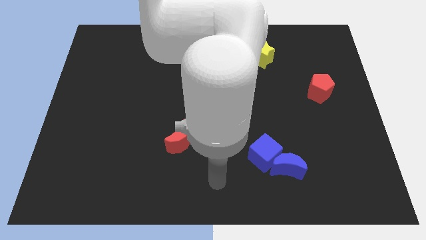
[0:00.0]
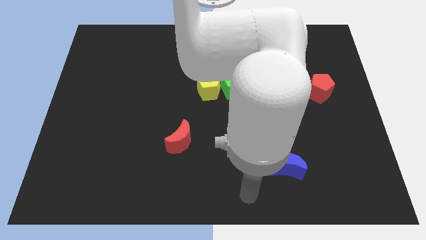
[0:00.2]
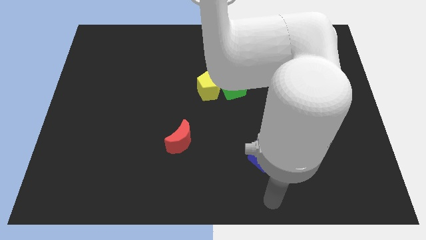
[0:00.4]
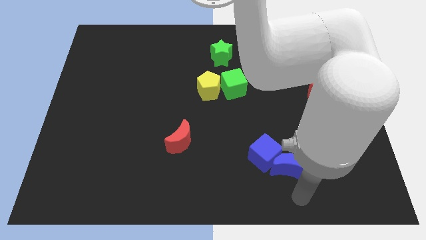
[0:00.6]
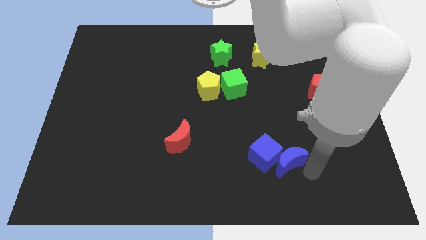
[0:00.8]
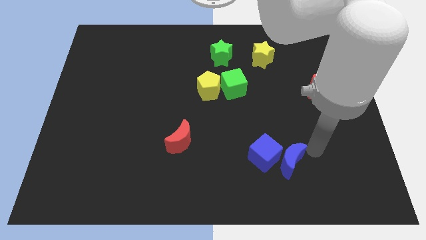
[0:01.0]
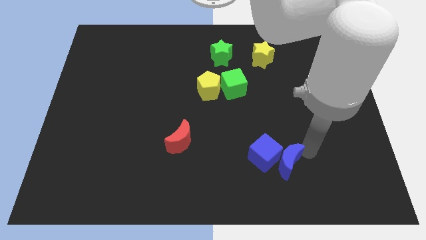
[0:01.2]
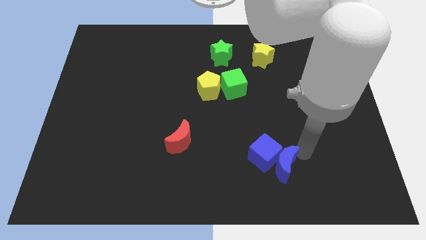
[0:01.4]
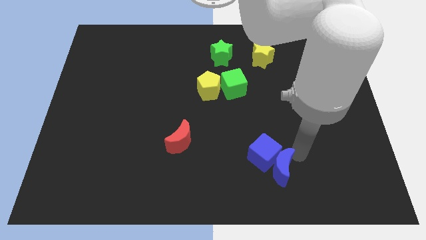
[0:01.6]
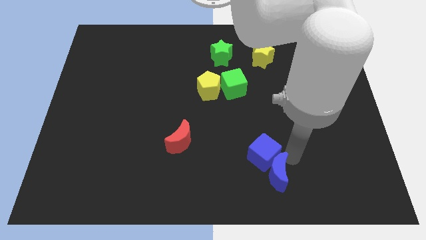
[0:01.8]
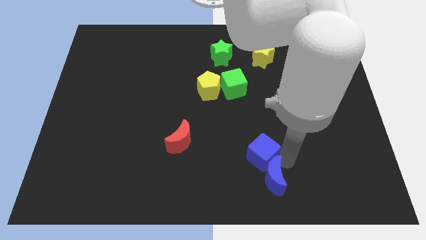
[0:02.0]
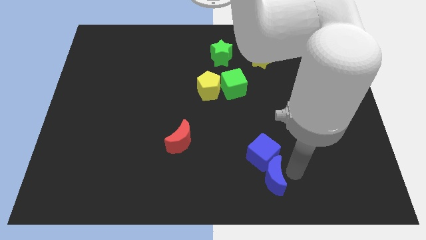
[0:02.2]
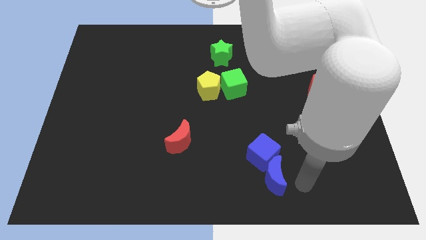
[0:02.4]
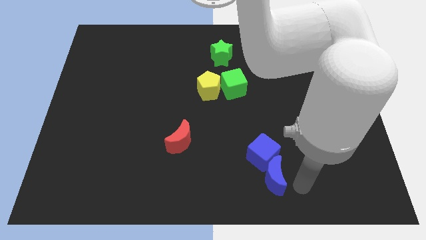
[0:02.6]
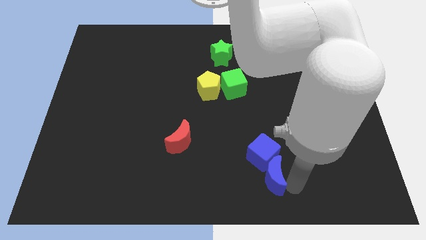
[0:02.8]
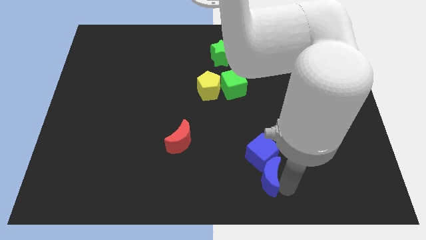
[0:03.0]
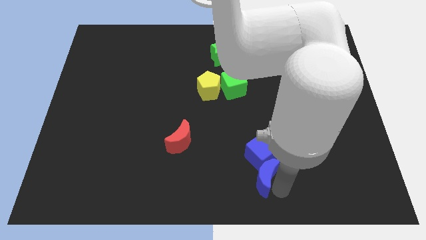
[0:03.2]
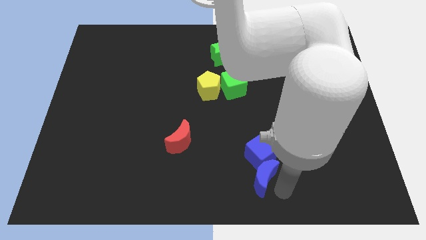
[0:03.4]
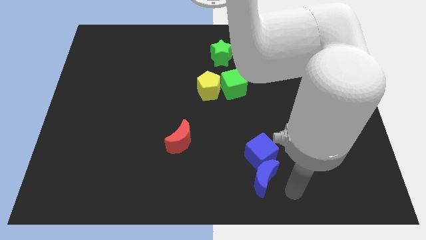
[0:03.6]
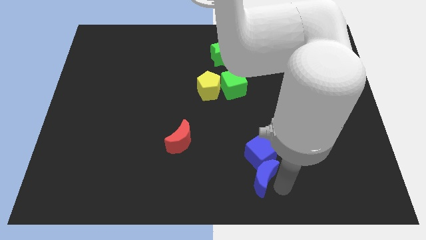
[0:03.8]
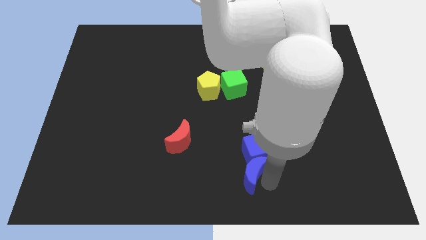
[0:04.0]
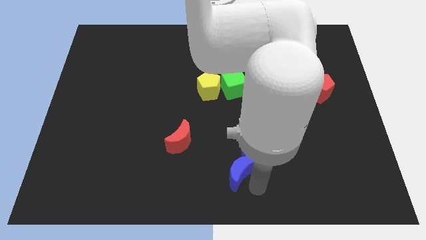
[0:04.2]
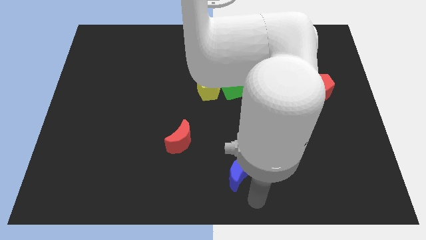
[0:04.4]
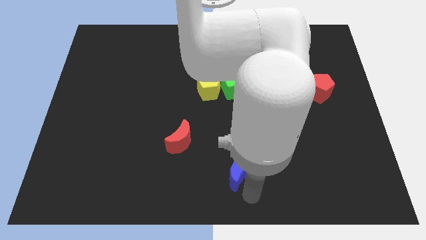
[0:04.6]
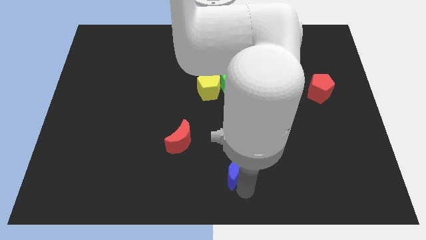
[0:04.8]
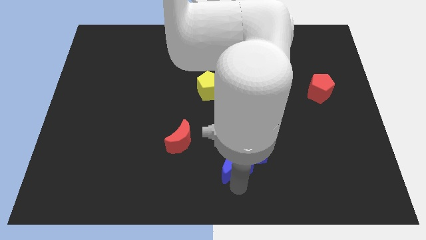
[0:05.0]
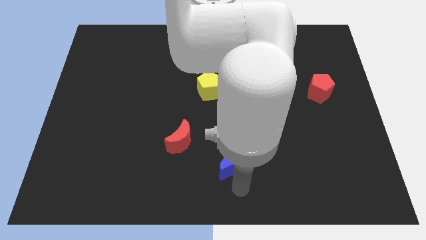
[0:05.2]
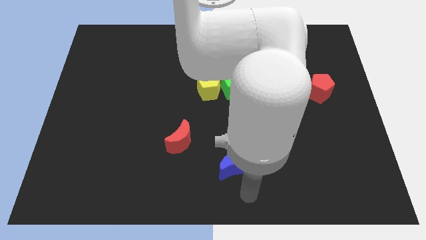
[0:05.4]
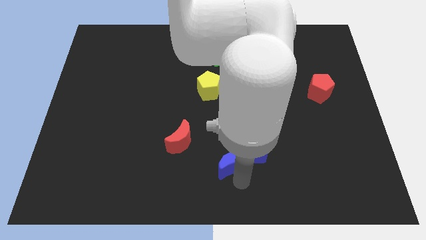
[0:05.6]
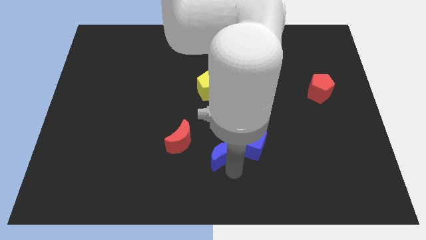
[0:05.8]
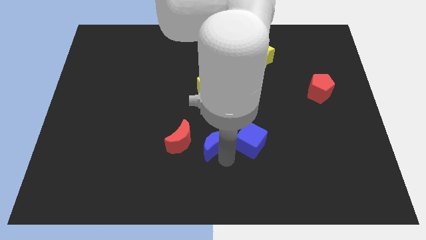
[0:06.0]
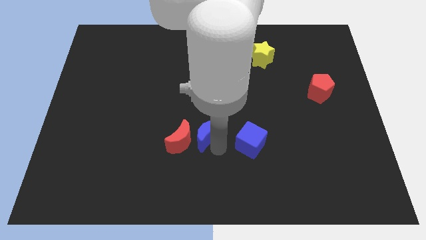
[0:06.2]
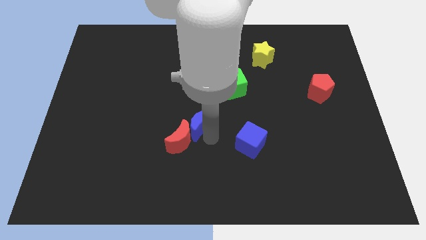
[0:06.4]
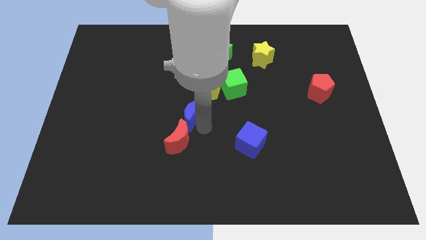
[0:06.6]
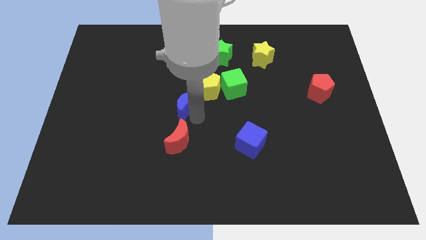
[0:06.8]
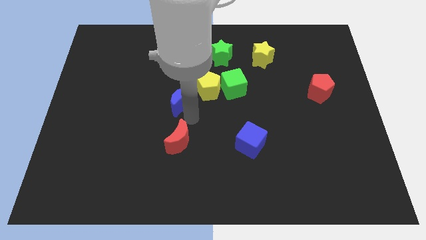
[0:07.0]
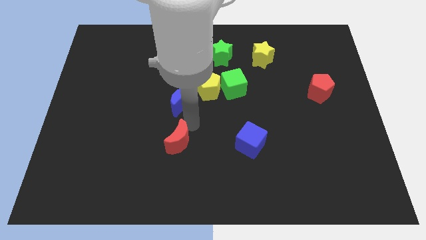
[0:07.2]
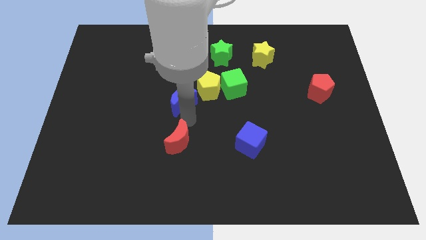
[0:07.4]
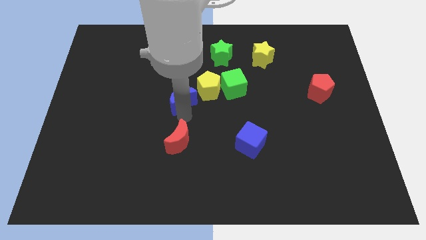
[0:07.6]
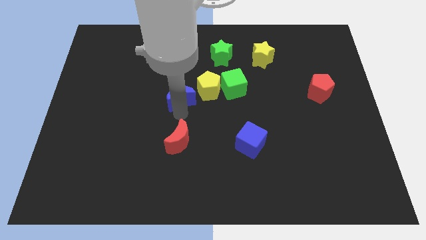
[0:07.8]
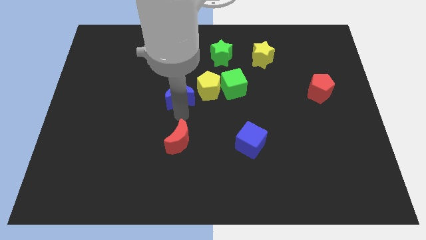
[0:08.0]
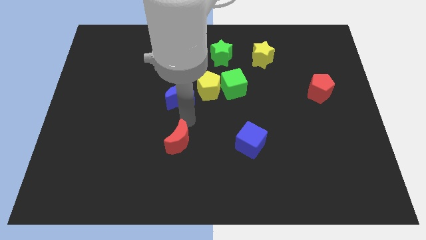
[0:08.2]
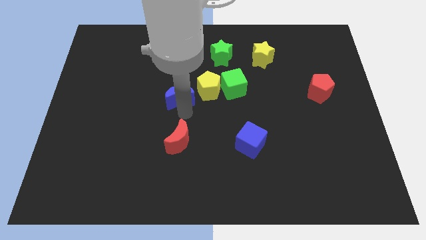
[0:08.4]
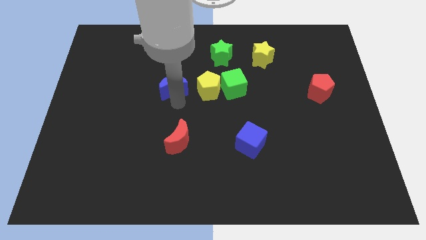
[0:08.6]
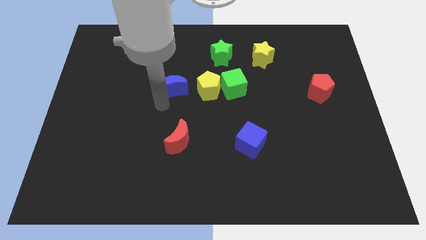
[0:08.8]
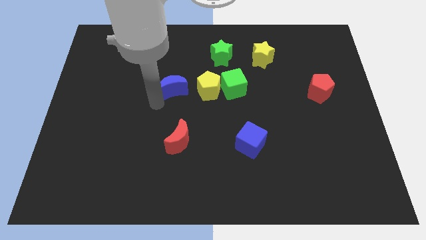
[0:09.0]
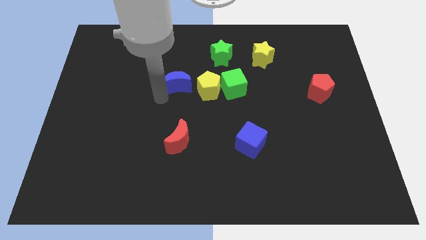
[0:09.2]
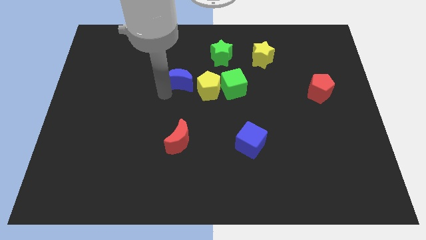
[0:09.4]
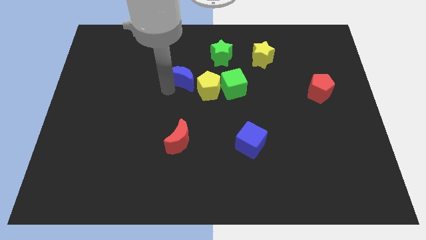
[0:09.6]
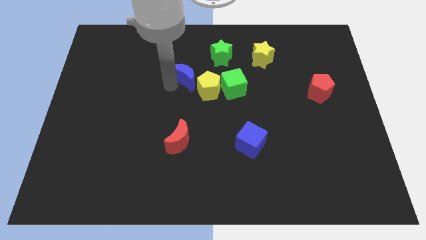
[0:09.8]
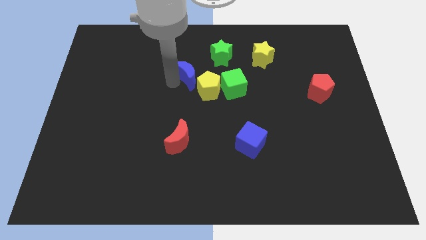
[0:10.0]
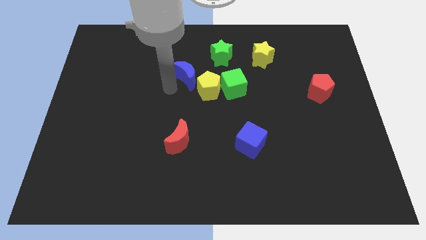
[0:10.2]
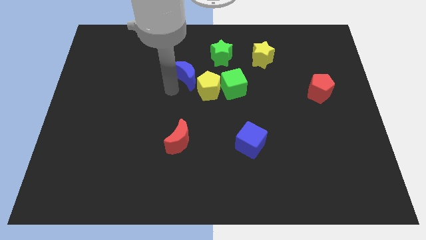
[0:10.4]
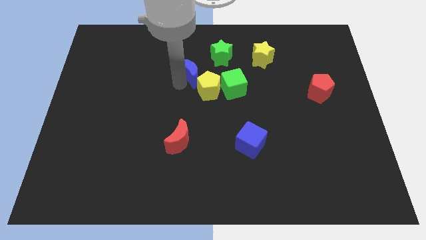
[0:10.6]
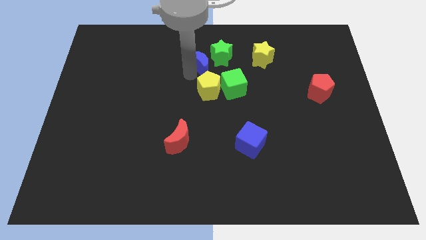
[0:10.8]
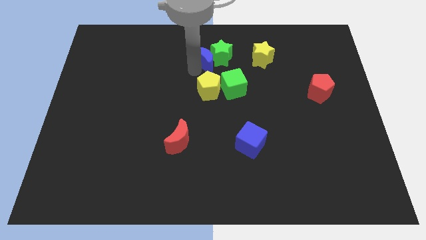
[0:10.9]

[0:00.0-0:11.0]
move the blue moon next to the green star

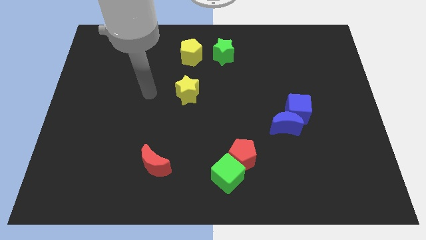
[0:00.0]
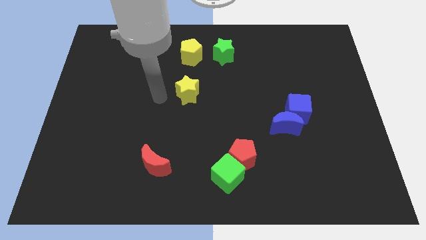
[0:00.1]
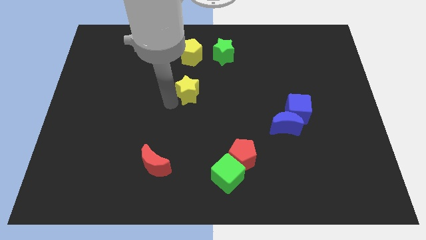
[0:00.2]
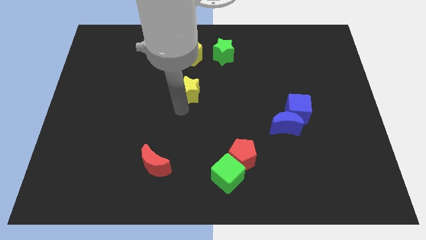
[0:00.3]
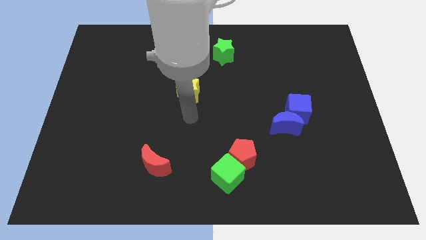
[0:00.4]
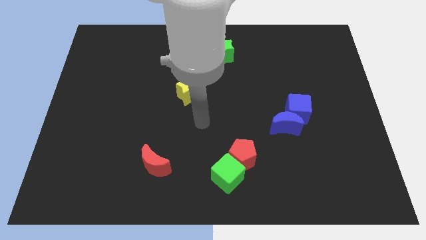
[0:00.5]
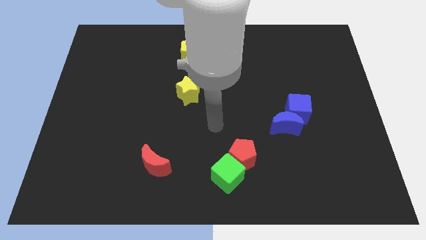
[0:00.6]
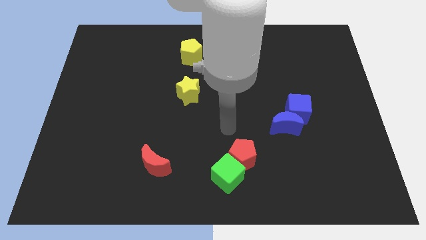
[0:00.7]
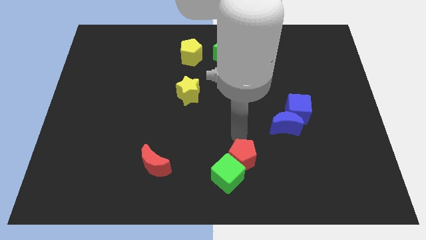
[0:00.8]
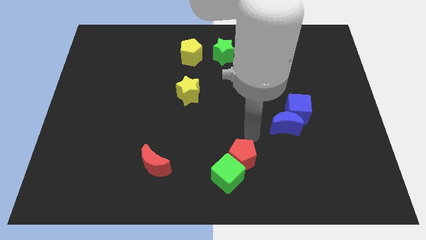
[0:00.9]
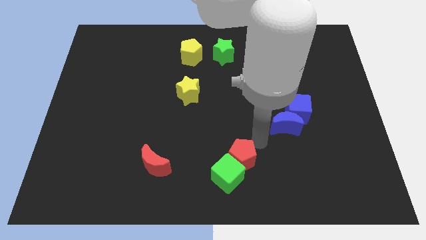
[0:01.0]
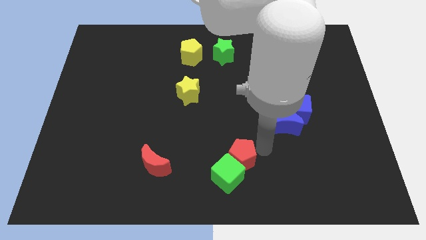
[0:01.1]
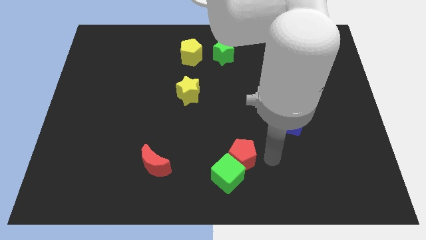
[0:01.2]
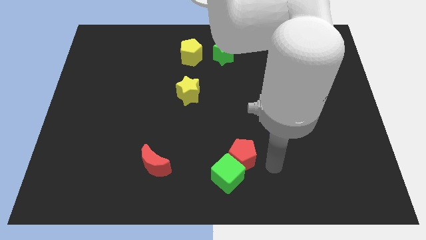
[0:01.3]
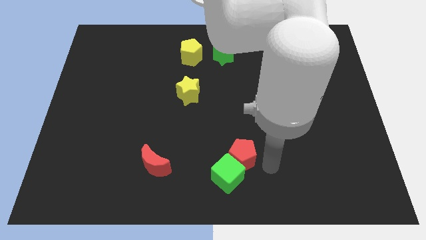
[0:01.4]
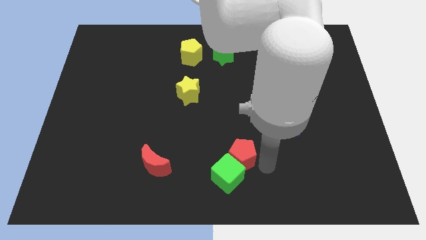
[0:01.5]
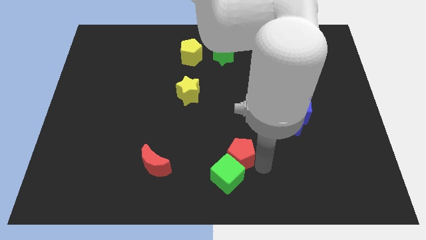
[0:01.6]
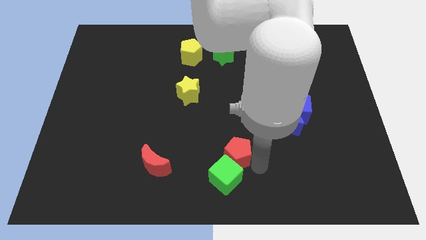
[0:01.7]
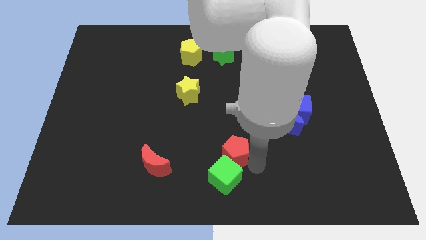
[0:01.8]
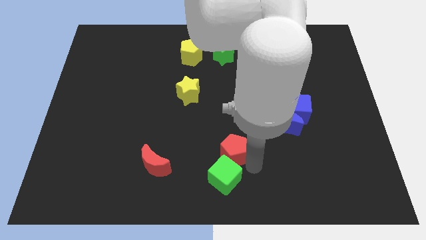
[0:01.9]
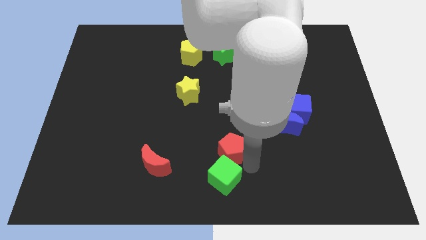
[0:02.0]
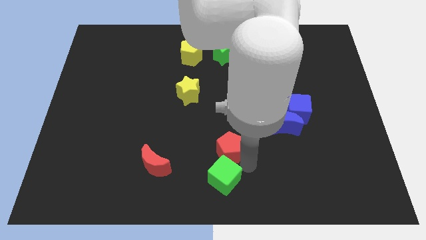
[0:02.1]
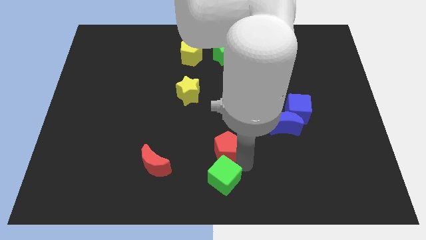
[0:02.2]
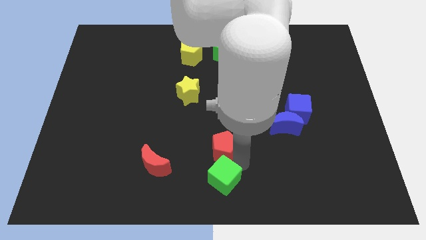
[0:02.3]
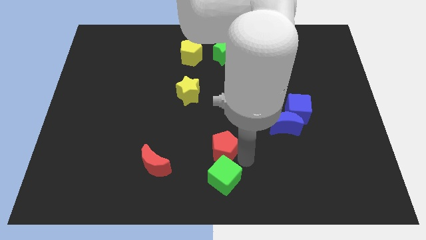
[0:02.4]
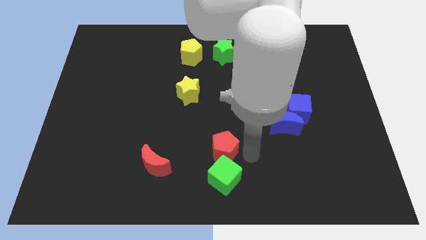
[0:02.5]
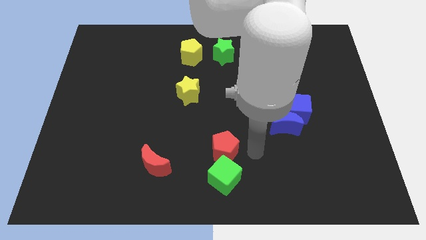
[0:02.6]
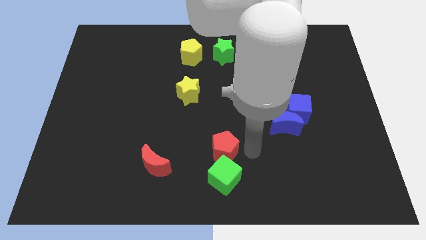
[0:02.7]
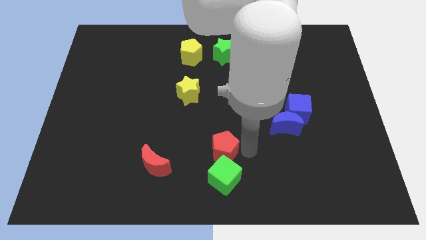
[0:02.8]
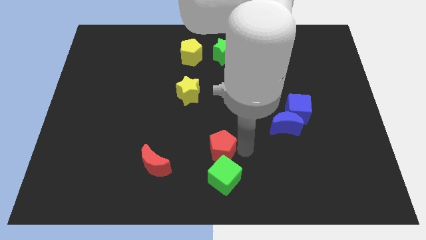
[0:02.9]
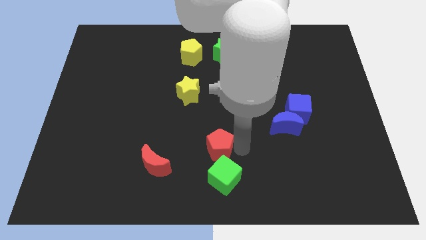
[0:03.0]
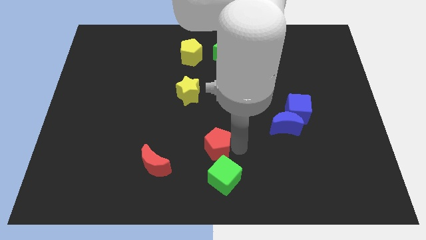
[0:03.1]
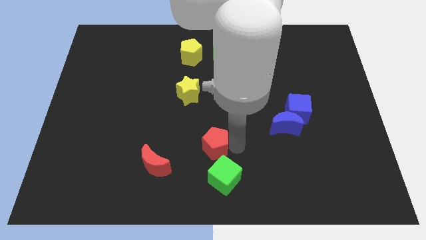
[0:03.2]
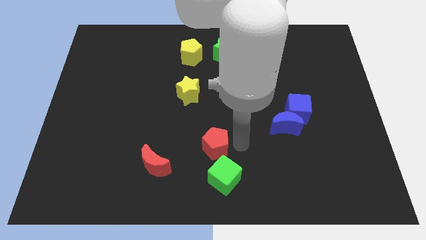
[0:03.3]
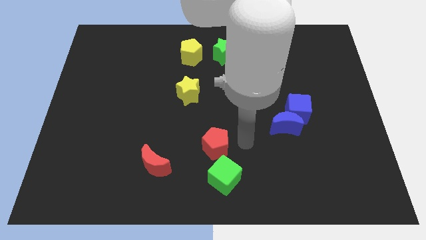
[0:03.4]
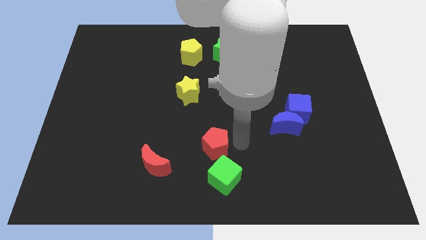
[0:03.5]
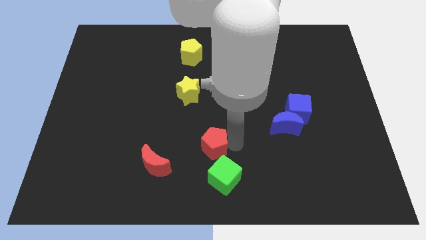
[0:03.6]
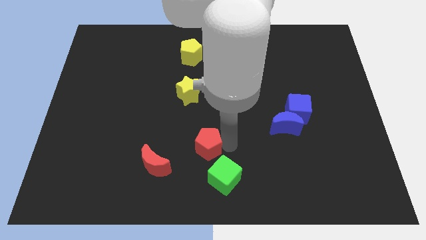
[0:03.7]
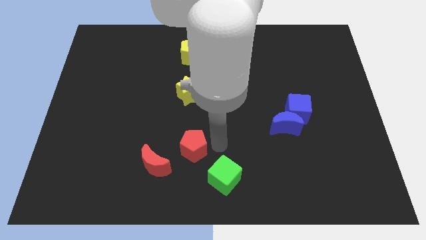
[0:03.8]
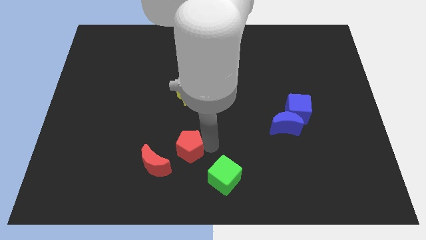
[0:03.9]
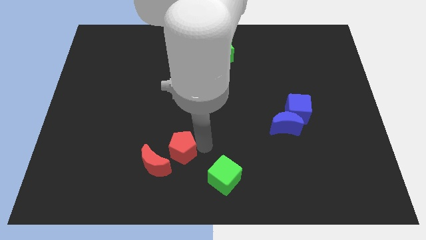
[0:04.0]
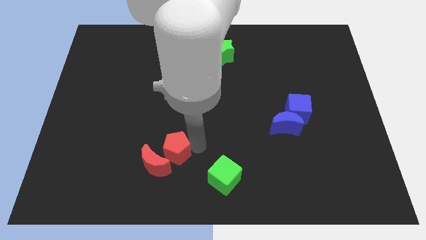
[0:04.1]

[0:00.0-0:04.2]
put the red pentagon to the red moon
